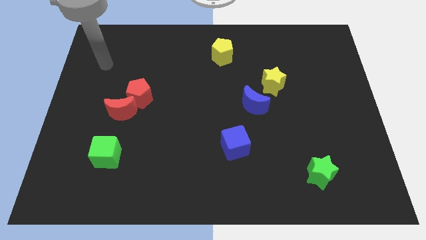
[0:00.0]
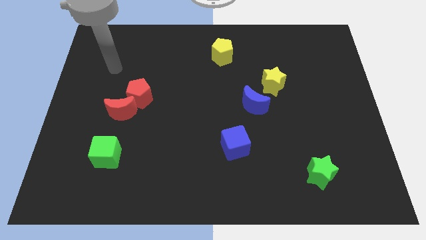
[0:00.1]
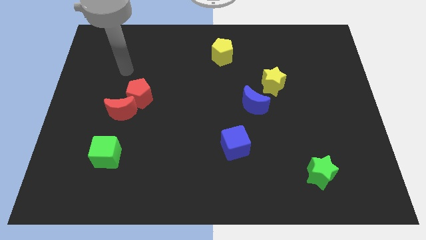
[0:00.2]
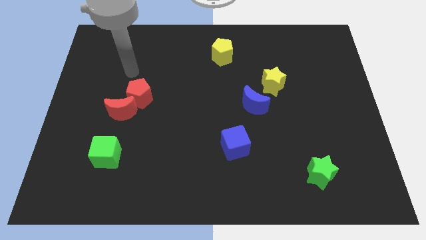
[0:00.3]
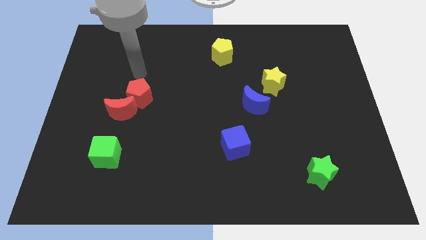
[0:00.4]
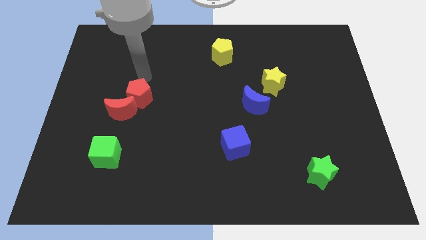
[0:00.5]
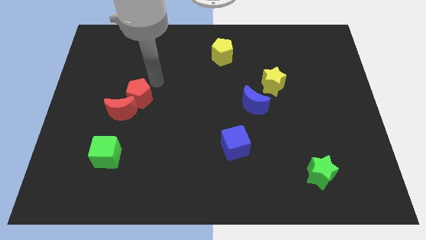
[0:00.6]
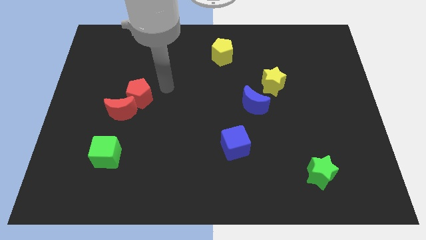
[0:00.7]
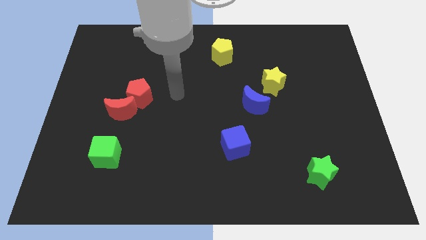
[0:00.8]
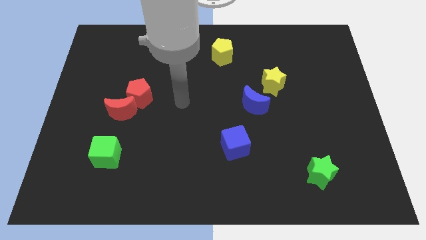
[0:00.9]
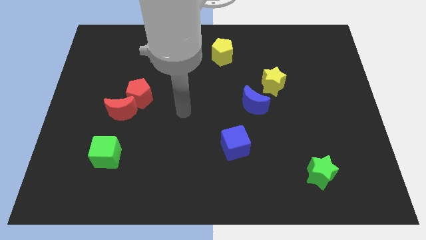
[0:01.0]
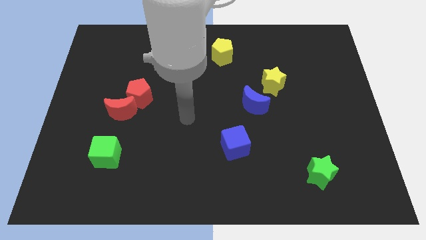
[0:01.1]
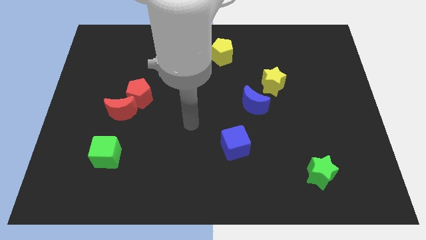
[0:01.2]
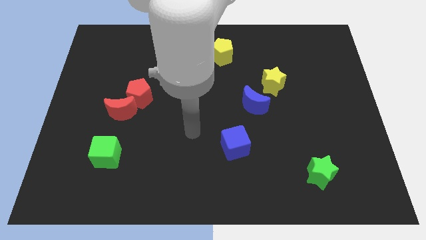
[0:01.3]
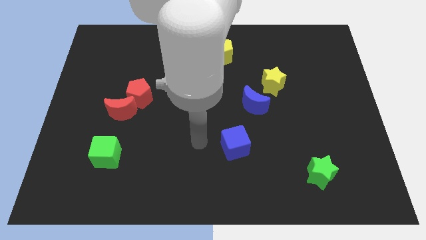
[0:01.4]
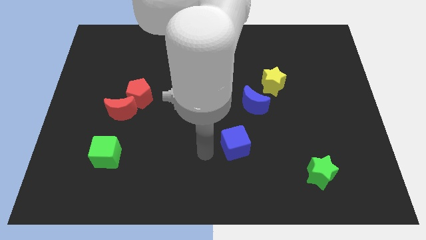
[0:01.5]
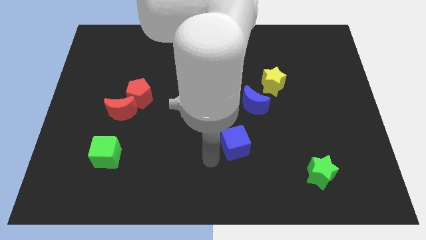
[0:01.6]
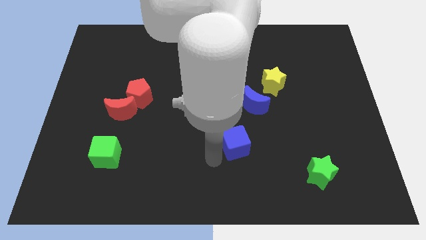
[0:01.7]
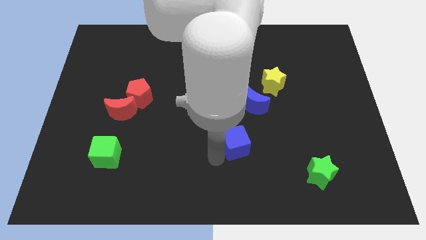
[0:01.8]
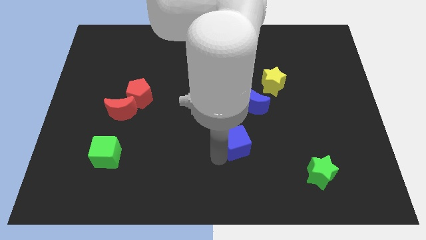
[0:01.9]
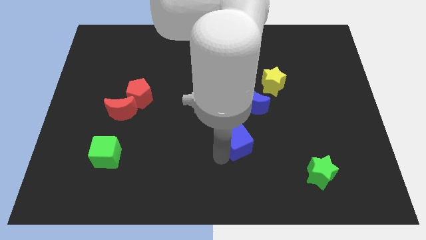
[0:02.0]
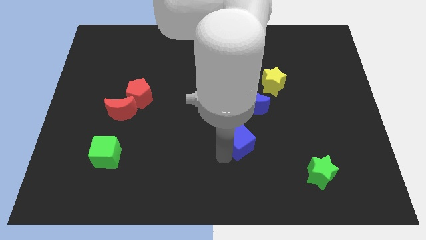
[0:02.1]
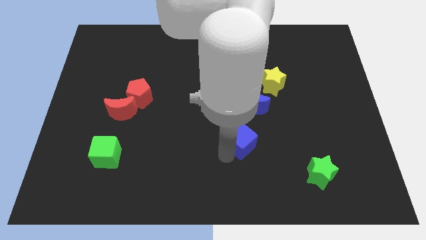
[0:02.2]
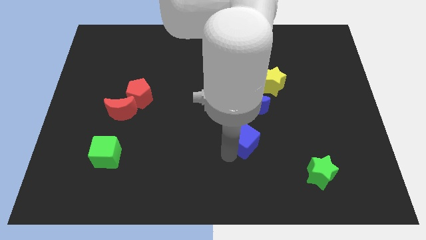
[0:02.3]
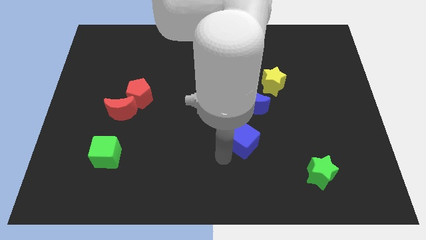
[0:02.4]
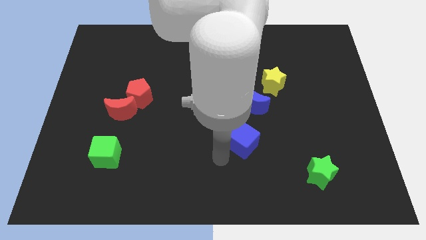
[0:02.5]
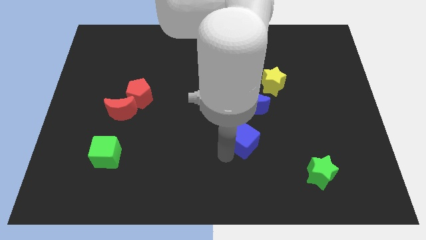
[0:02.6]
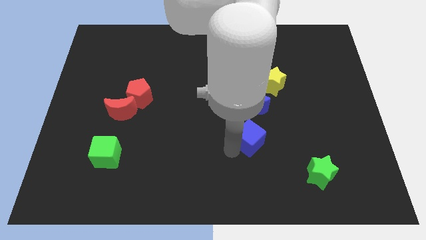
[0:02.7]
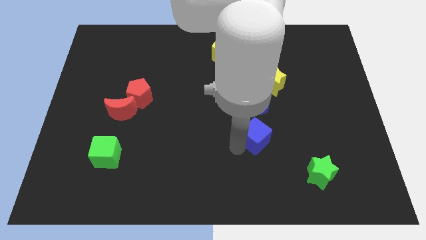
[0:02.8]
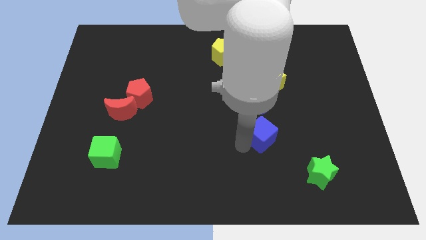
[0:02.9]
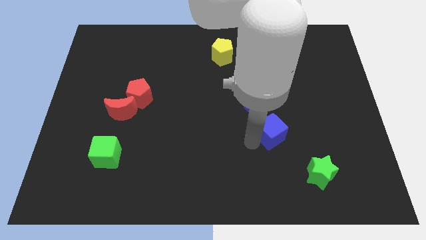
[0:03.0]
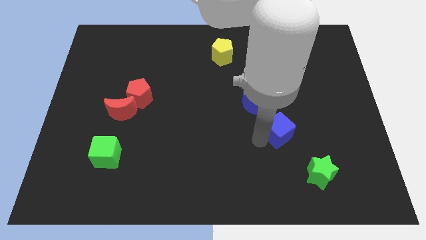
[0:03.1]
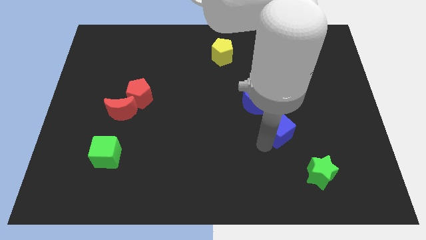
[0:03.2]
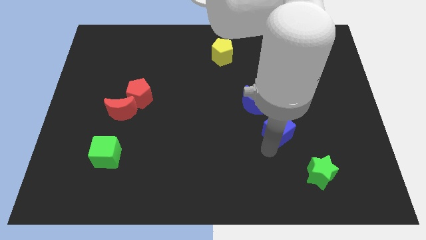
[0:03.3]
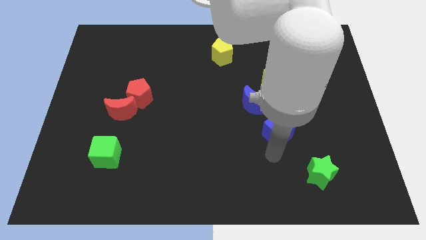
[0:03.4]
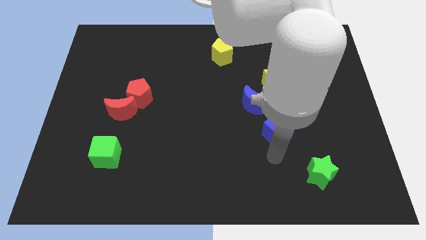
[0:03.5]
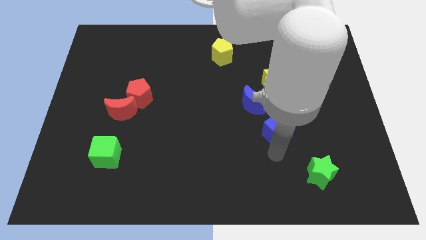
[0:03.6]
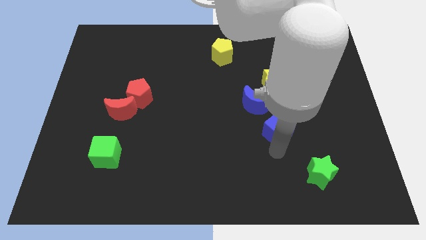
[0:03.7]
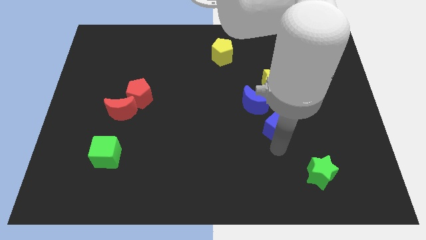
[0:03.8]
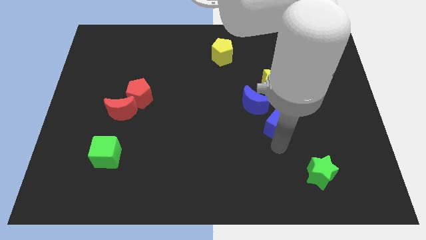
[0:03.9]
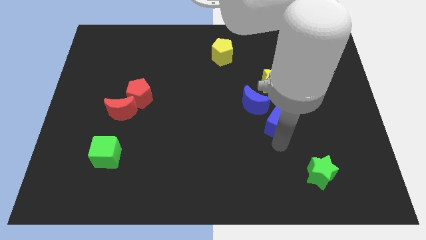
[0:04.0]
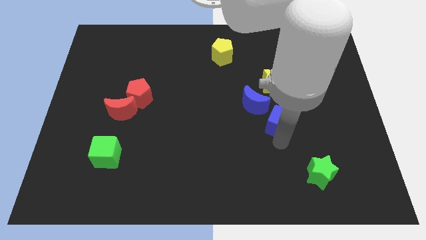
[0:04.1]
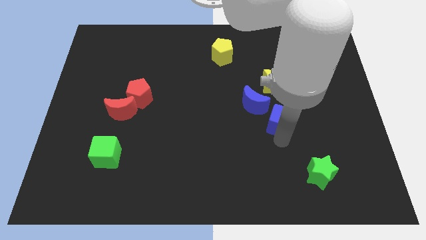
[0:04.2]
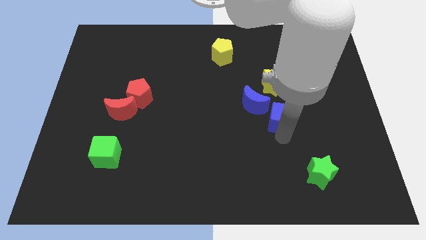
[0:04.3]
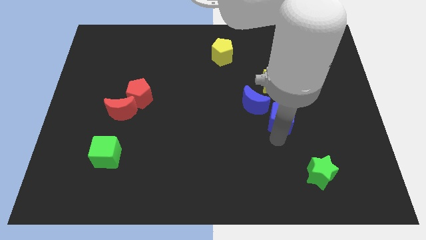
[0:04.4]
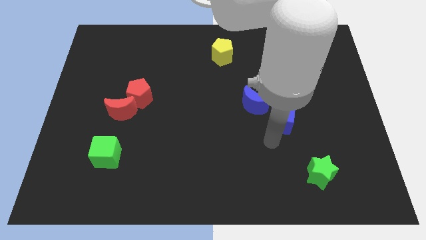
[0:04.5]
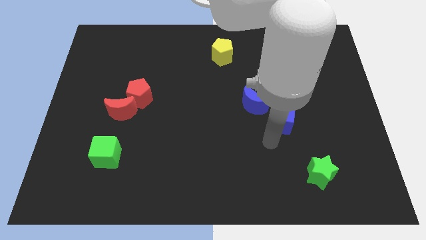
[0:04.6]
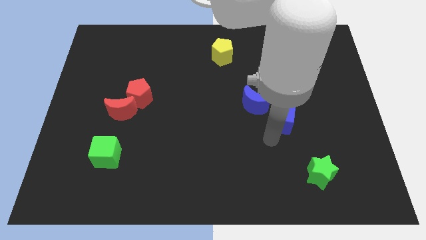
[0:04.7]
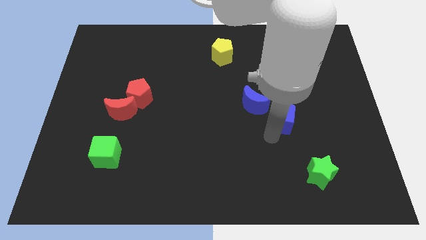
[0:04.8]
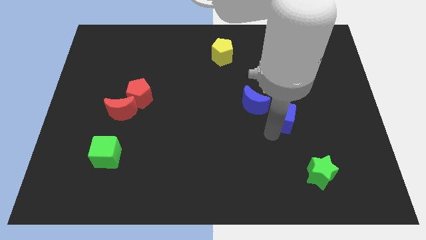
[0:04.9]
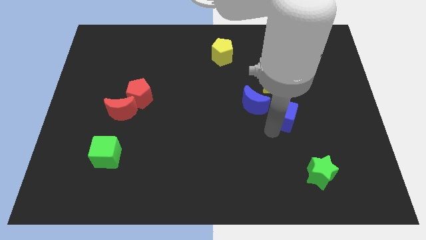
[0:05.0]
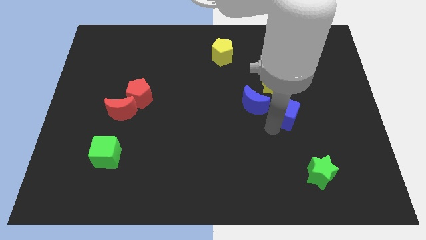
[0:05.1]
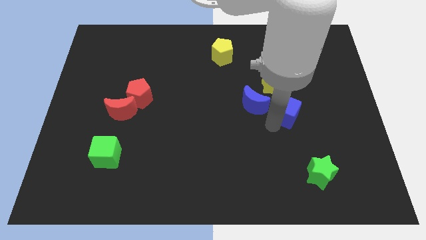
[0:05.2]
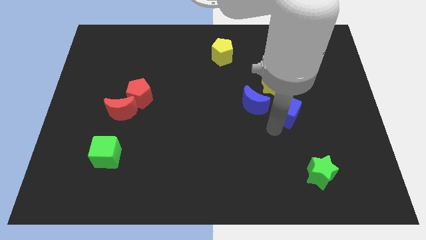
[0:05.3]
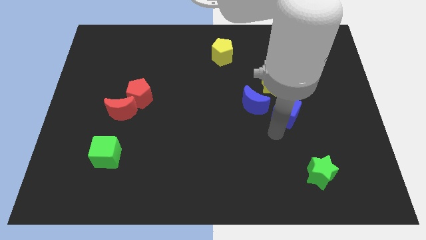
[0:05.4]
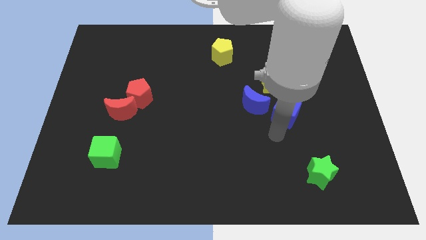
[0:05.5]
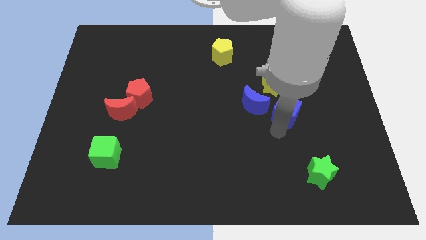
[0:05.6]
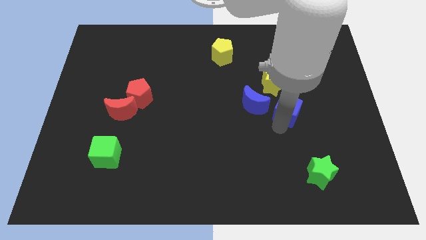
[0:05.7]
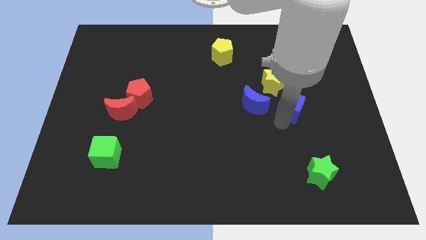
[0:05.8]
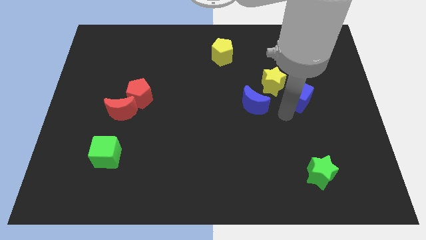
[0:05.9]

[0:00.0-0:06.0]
move the blue cube up and to the right

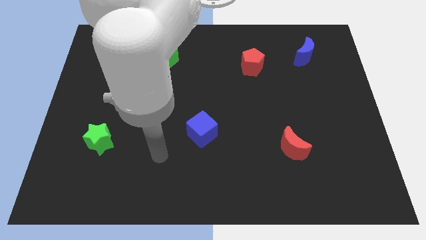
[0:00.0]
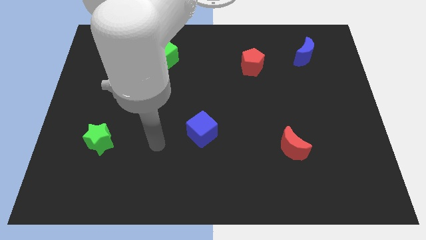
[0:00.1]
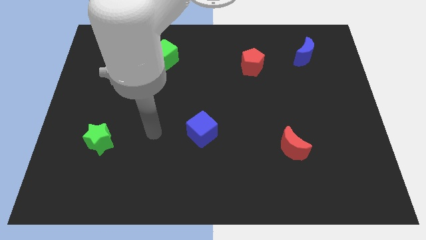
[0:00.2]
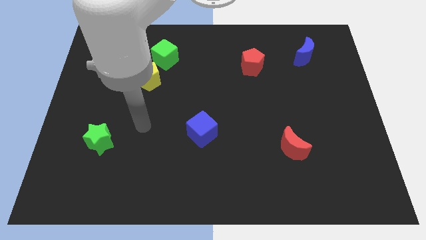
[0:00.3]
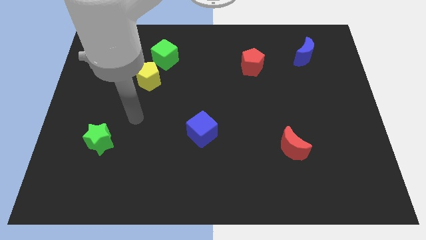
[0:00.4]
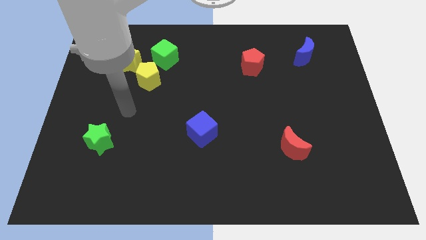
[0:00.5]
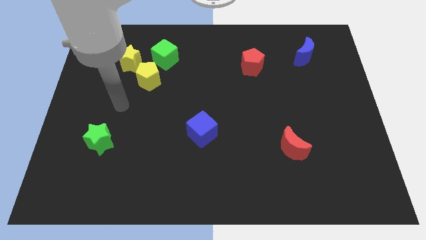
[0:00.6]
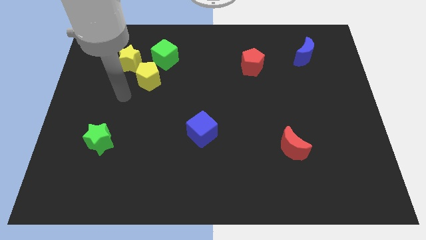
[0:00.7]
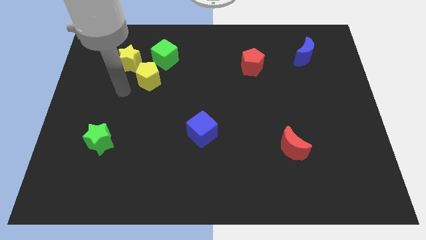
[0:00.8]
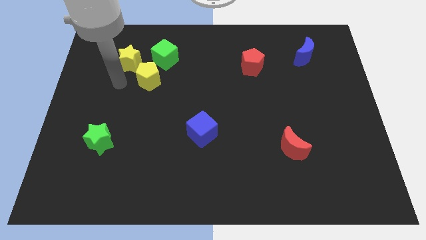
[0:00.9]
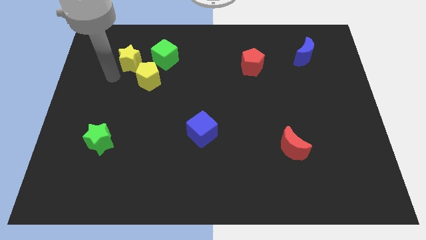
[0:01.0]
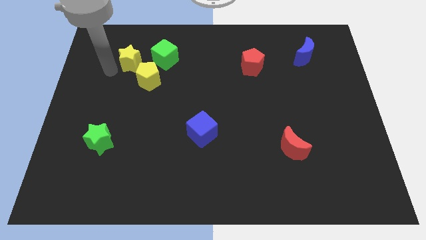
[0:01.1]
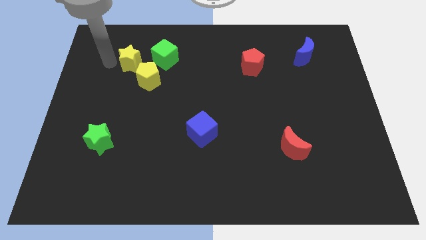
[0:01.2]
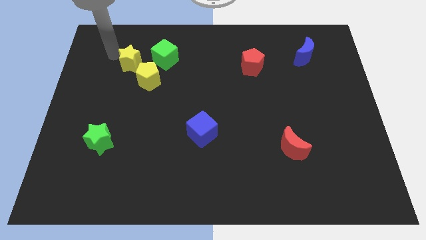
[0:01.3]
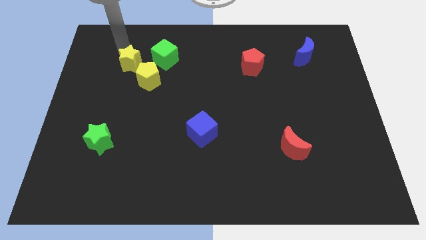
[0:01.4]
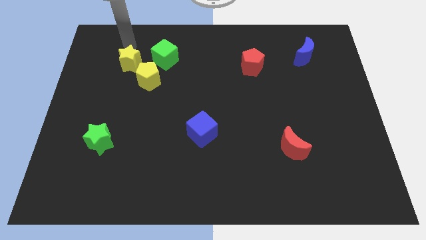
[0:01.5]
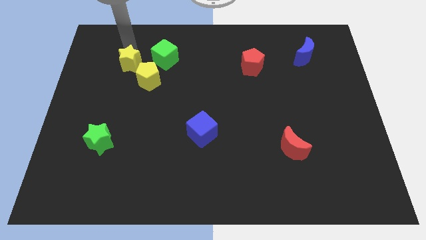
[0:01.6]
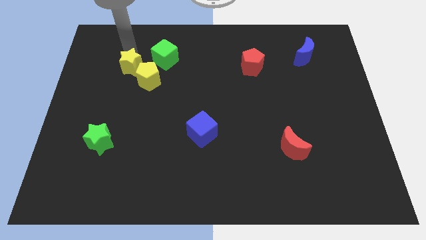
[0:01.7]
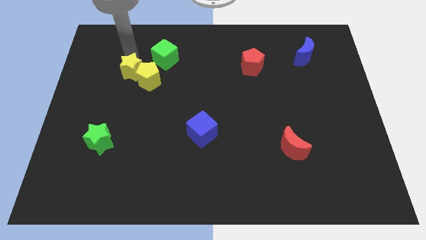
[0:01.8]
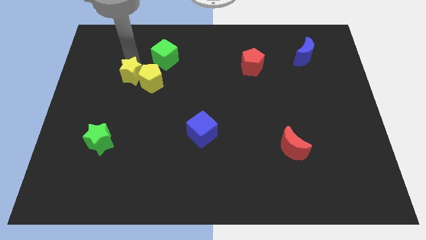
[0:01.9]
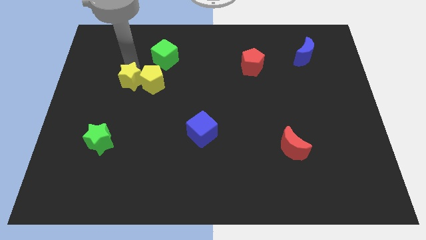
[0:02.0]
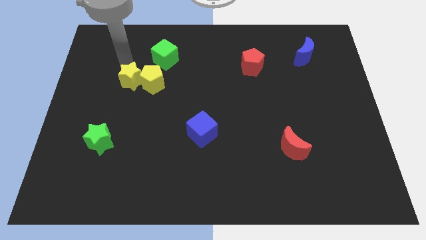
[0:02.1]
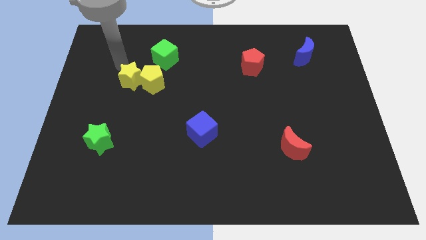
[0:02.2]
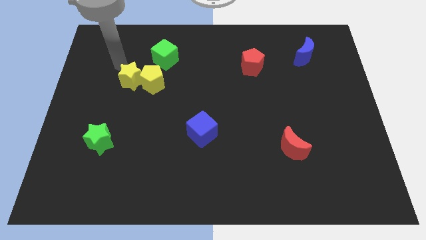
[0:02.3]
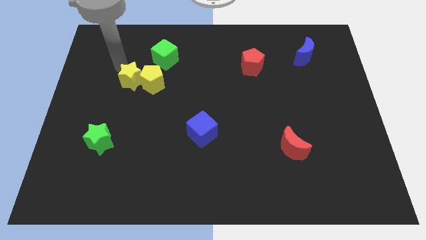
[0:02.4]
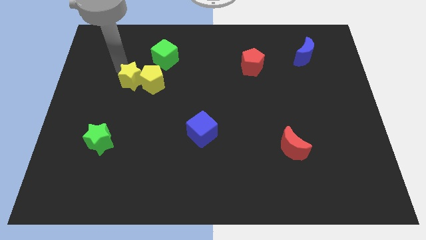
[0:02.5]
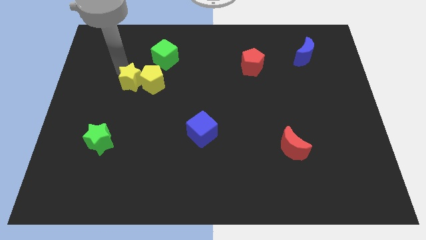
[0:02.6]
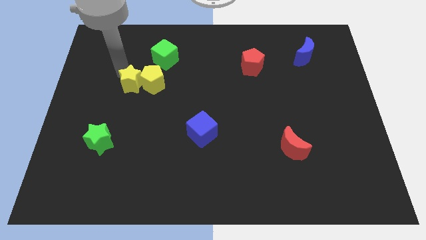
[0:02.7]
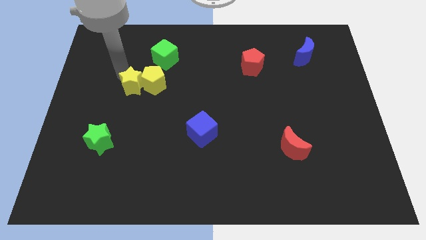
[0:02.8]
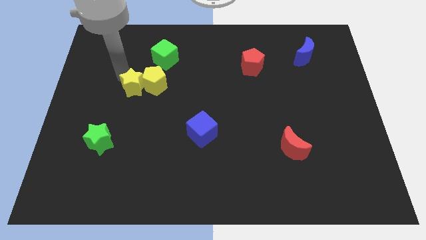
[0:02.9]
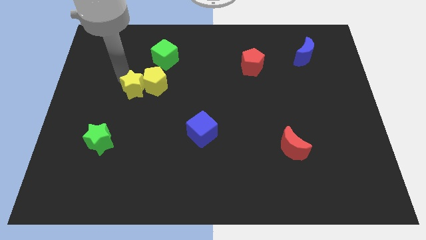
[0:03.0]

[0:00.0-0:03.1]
slide the yellow star diagonally downwards and to the right a bit
